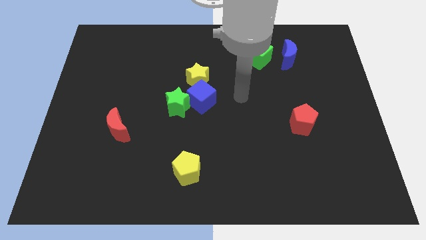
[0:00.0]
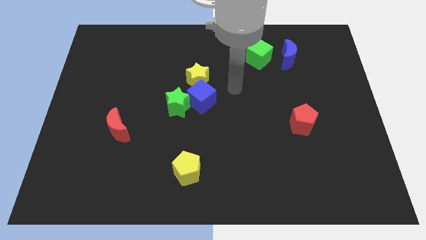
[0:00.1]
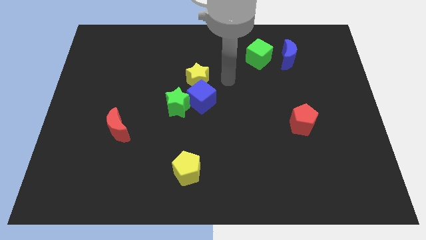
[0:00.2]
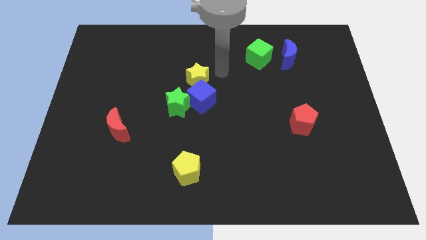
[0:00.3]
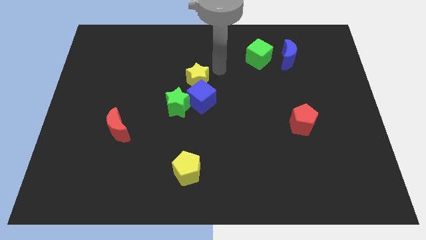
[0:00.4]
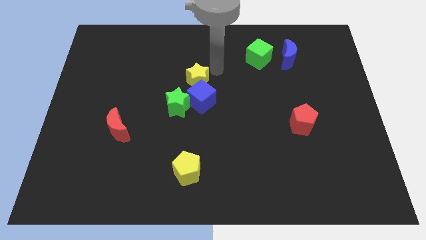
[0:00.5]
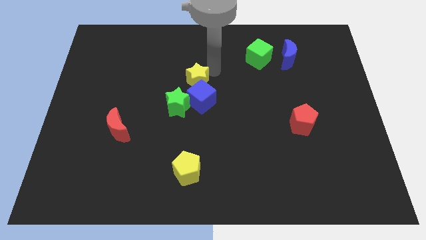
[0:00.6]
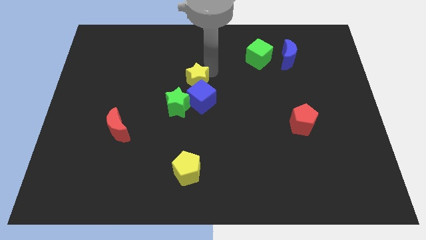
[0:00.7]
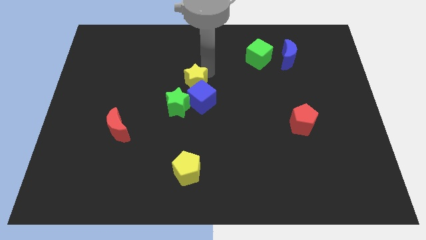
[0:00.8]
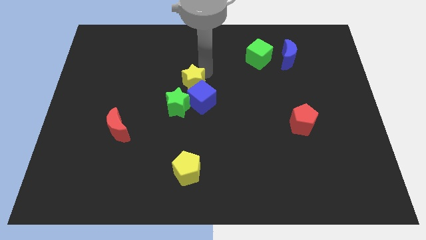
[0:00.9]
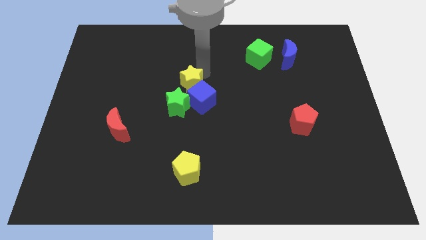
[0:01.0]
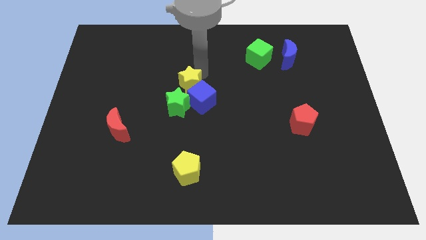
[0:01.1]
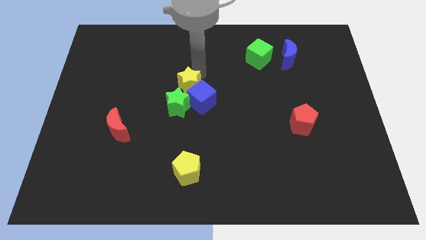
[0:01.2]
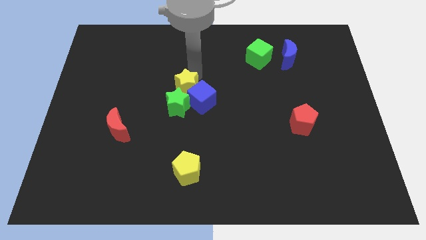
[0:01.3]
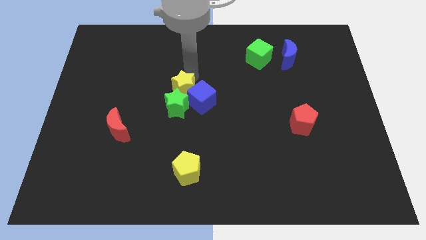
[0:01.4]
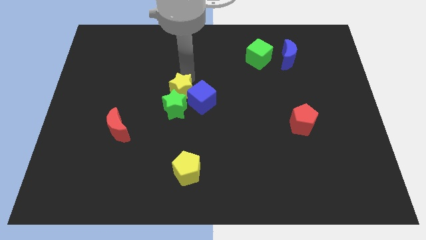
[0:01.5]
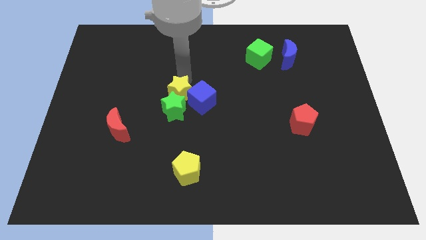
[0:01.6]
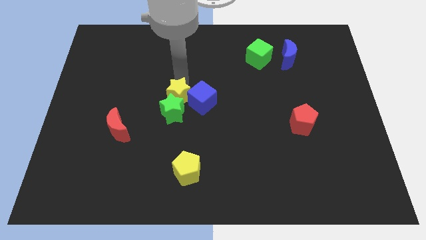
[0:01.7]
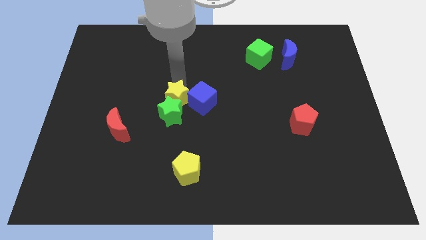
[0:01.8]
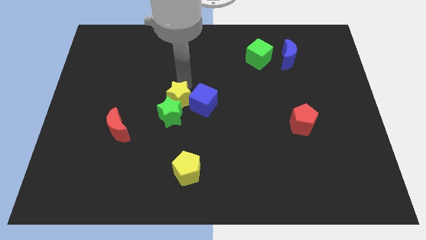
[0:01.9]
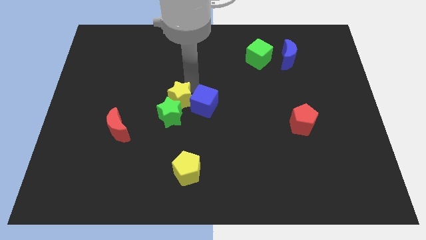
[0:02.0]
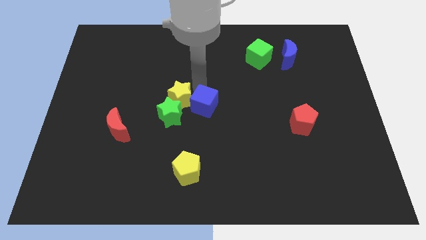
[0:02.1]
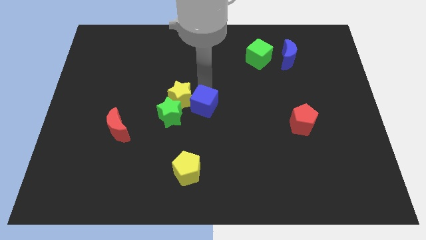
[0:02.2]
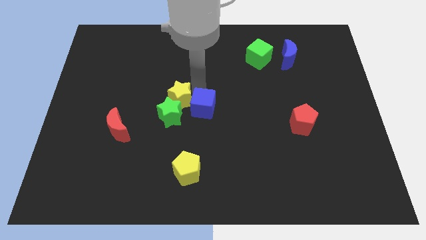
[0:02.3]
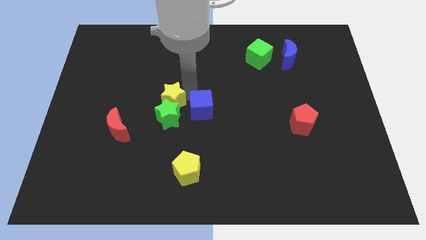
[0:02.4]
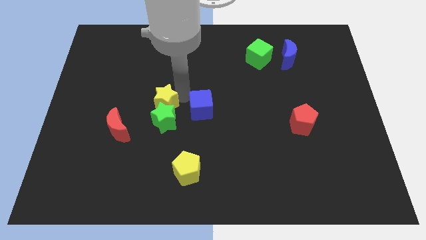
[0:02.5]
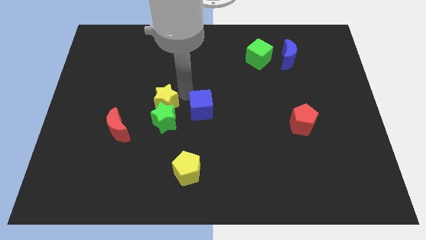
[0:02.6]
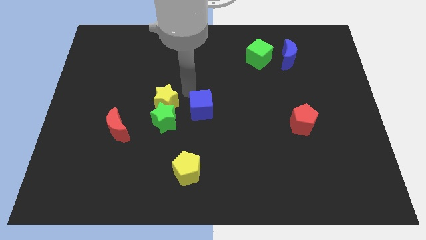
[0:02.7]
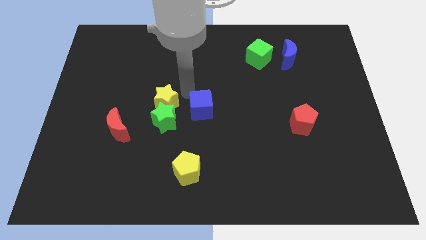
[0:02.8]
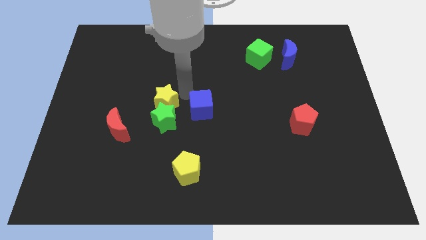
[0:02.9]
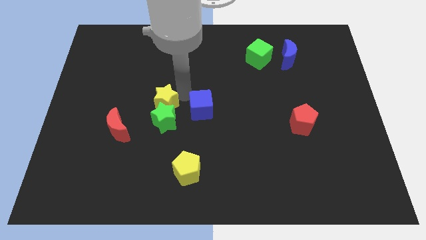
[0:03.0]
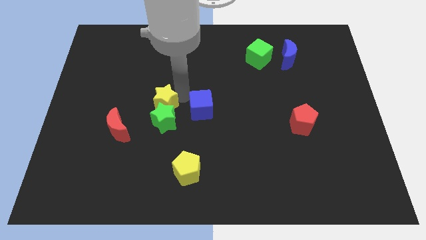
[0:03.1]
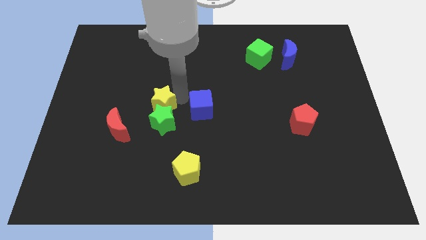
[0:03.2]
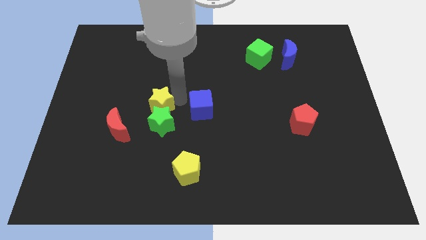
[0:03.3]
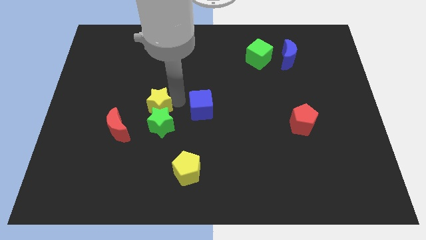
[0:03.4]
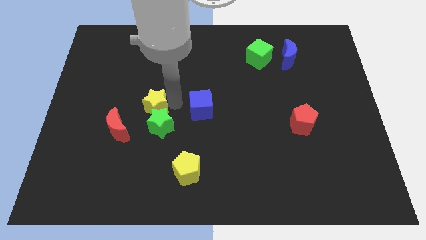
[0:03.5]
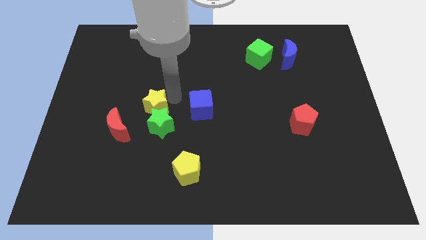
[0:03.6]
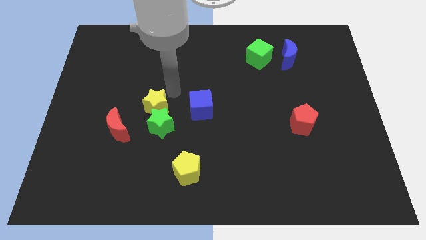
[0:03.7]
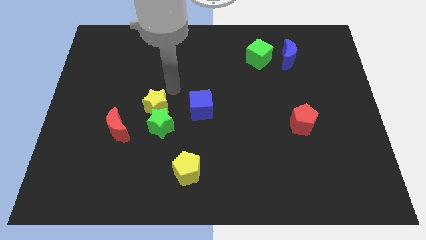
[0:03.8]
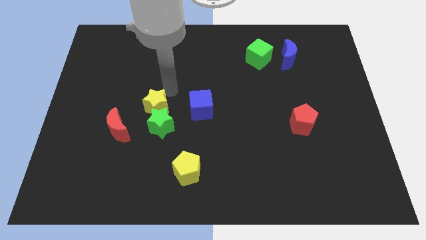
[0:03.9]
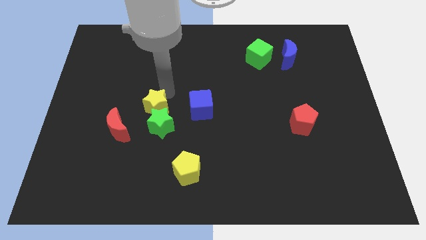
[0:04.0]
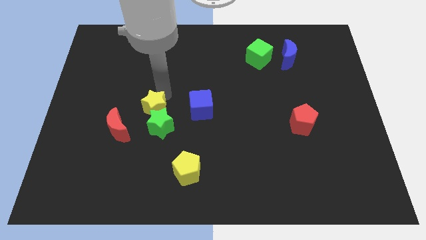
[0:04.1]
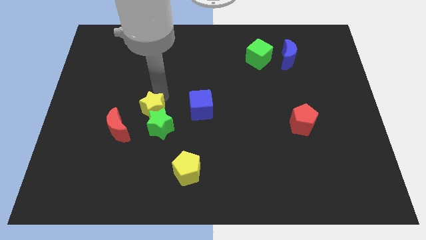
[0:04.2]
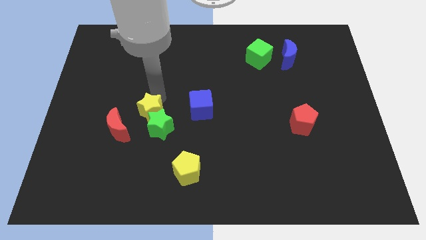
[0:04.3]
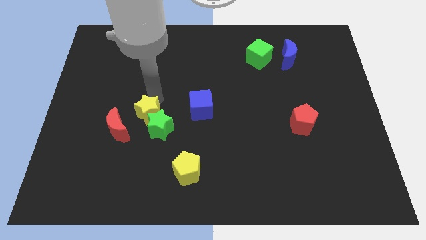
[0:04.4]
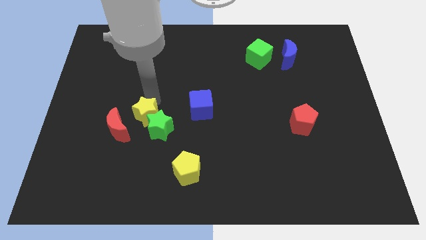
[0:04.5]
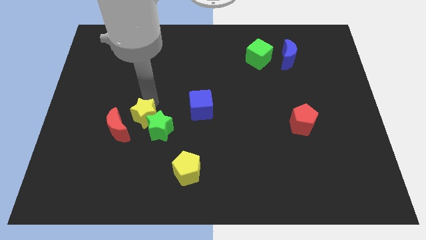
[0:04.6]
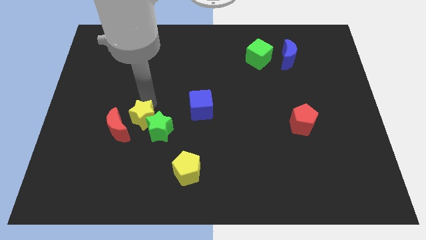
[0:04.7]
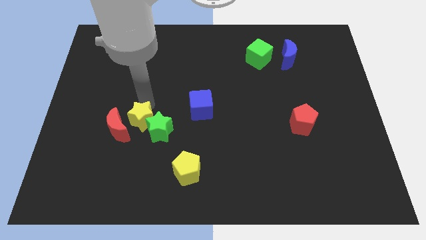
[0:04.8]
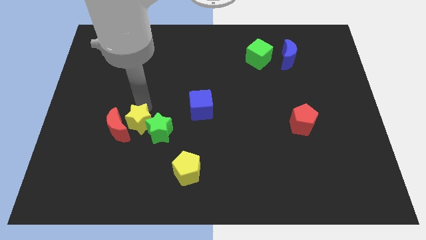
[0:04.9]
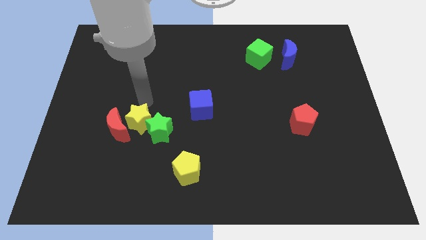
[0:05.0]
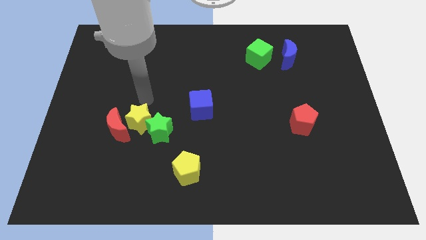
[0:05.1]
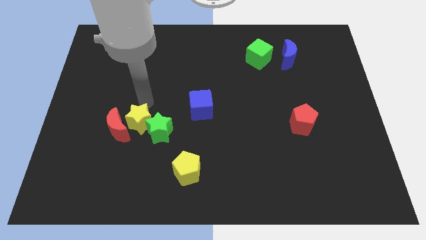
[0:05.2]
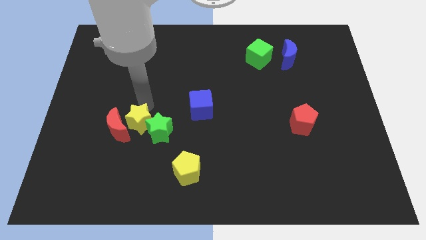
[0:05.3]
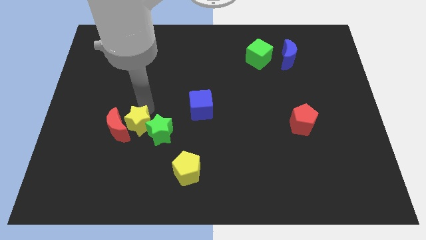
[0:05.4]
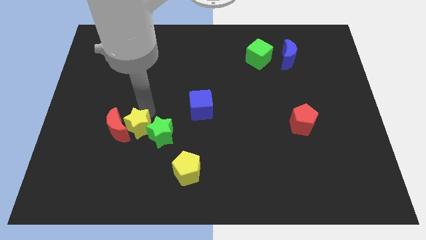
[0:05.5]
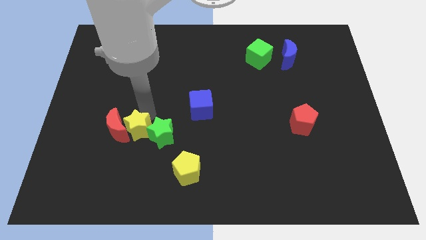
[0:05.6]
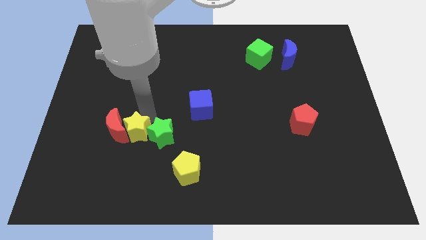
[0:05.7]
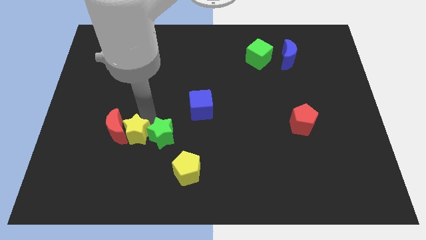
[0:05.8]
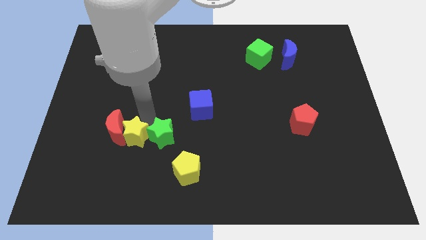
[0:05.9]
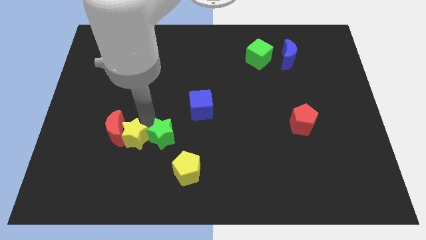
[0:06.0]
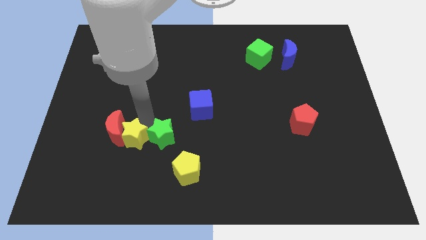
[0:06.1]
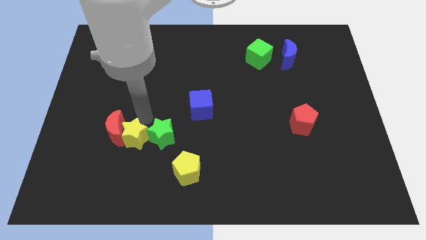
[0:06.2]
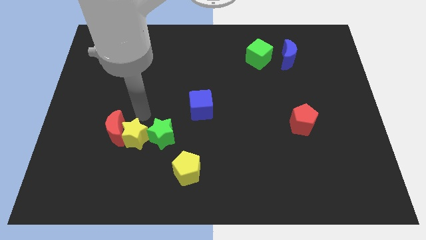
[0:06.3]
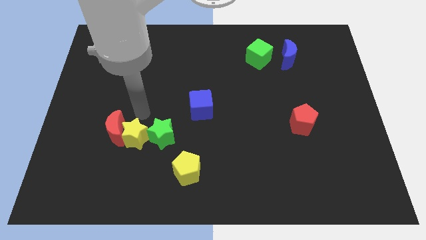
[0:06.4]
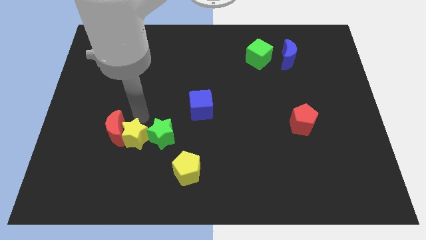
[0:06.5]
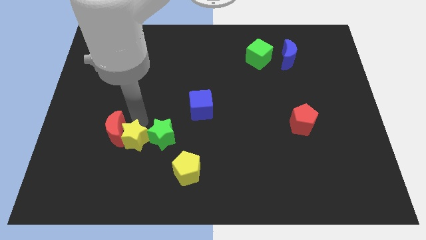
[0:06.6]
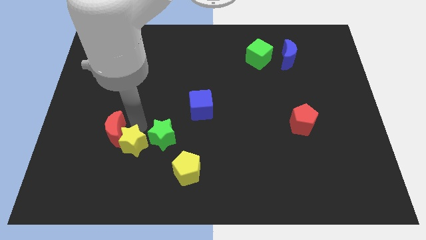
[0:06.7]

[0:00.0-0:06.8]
slide the yellow star to the bottom of the red moon
